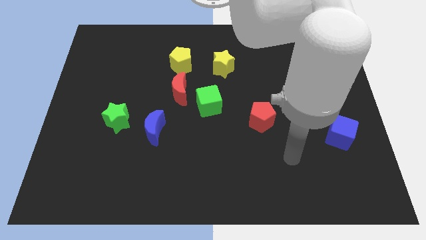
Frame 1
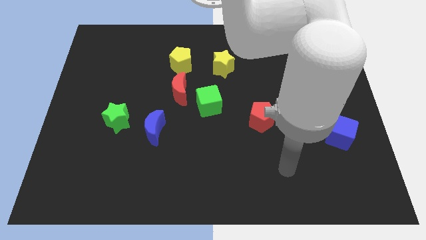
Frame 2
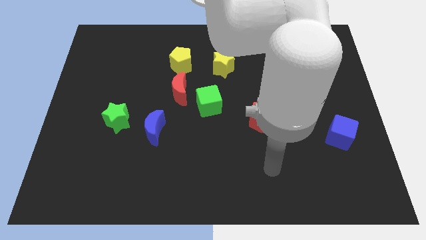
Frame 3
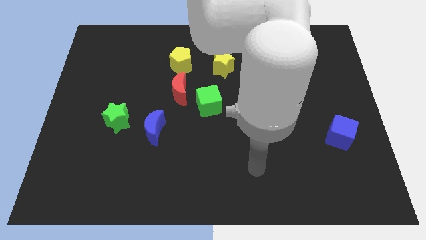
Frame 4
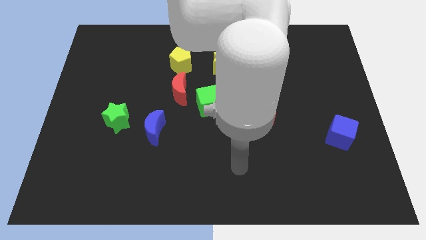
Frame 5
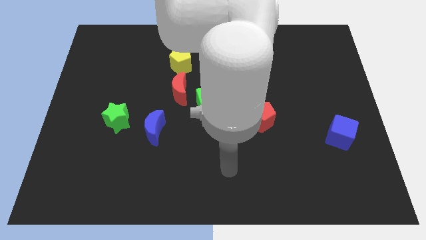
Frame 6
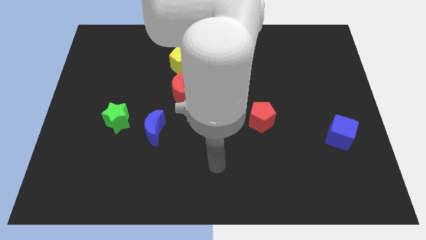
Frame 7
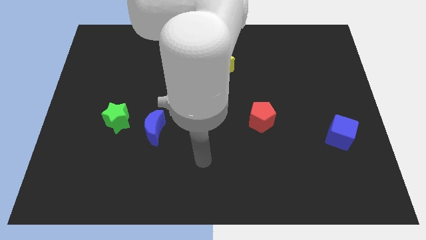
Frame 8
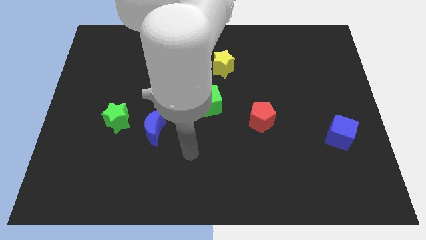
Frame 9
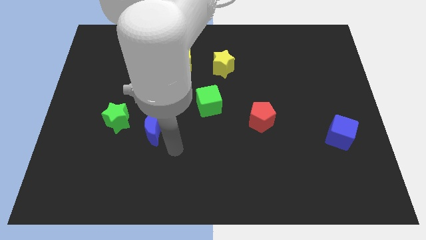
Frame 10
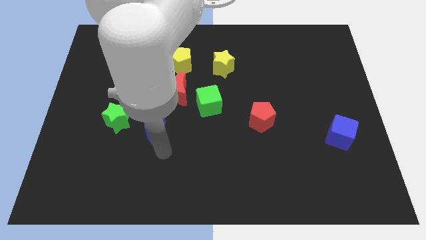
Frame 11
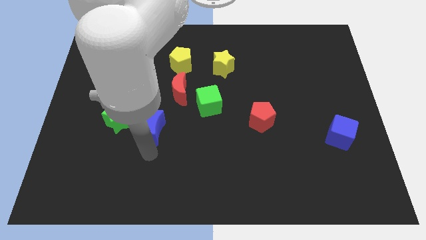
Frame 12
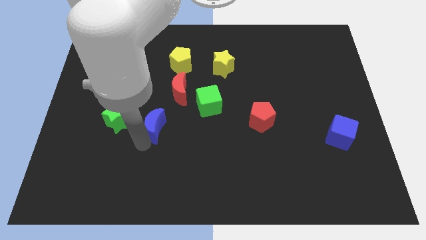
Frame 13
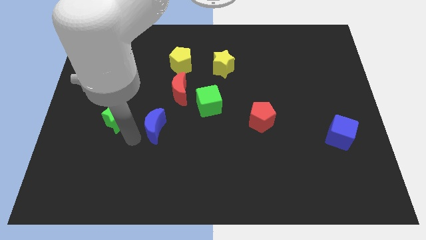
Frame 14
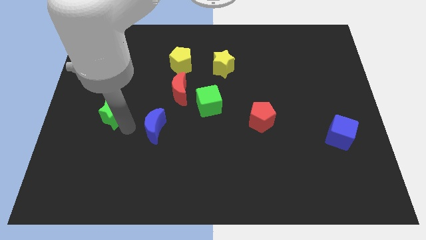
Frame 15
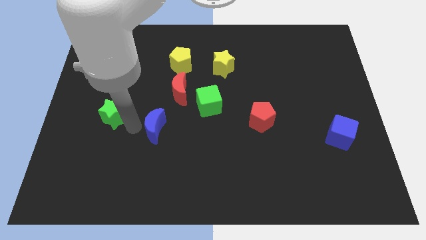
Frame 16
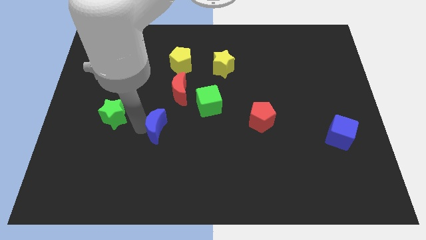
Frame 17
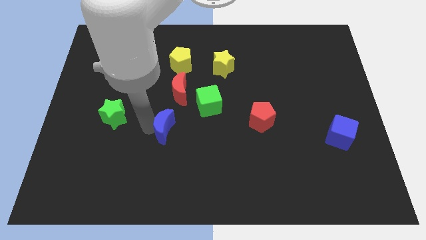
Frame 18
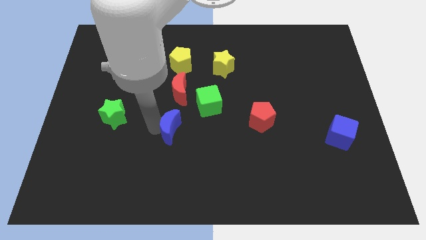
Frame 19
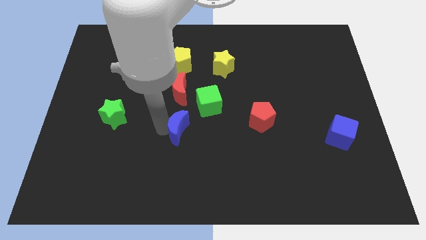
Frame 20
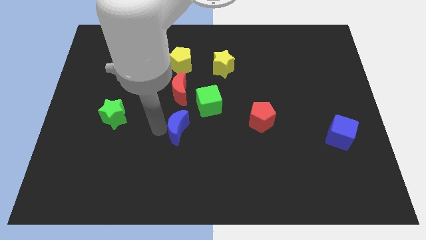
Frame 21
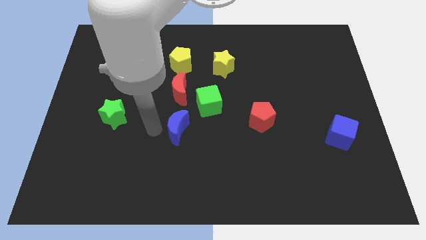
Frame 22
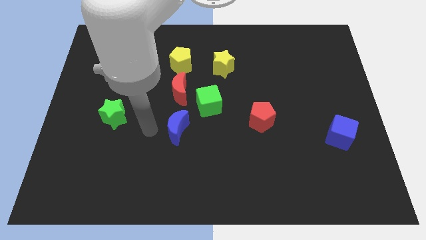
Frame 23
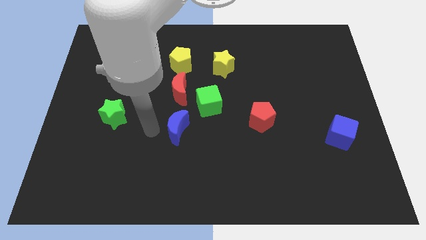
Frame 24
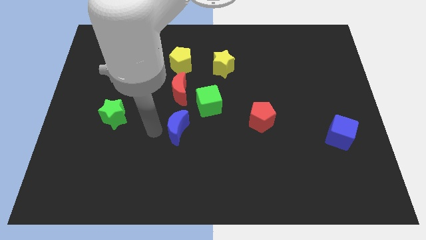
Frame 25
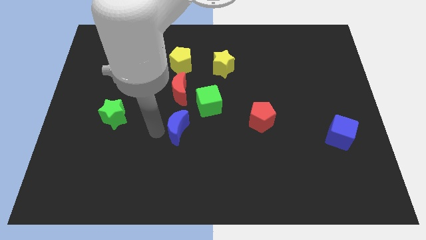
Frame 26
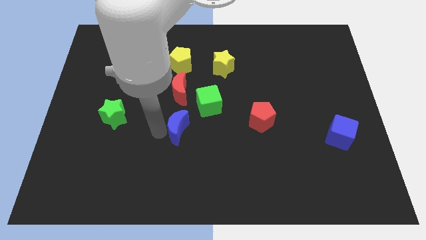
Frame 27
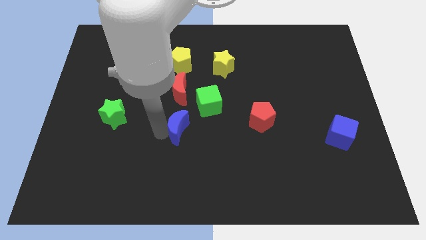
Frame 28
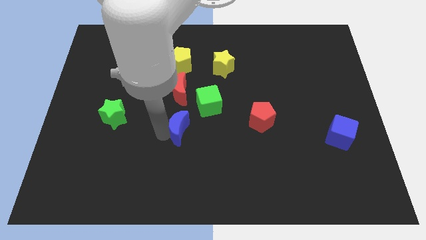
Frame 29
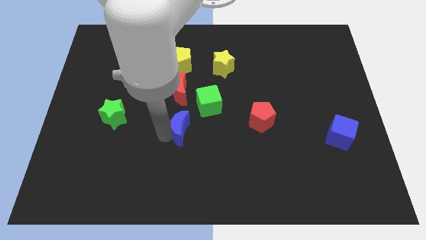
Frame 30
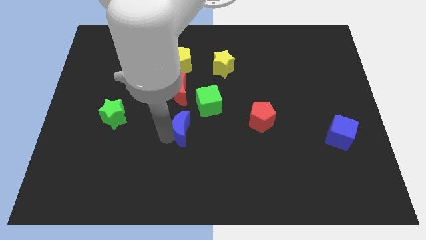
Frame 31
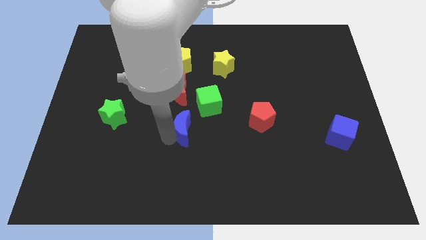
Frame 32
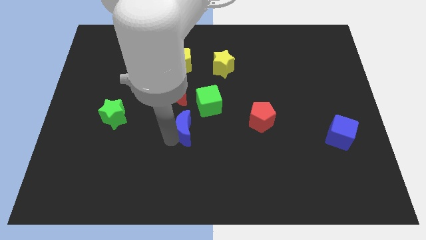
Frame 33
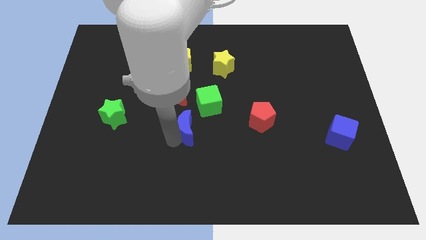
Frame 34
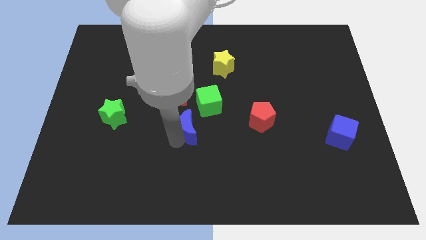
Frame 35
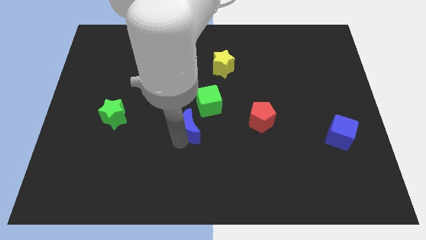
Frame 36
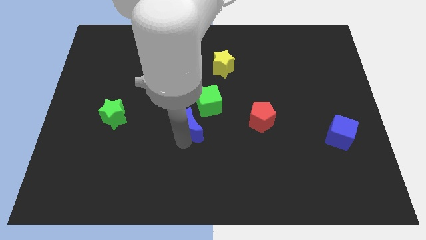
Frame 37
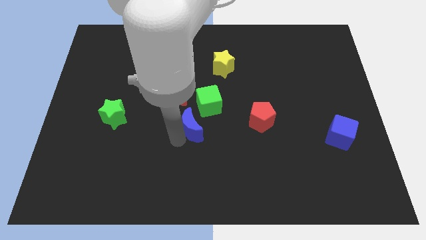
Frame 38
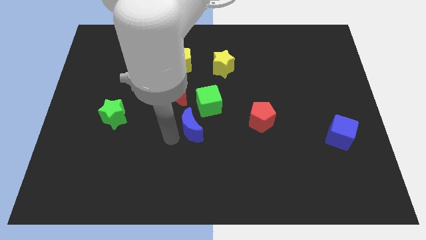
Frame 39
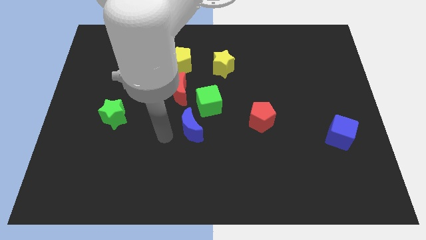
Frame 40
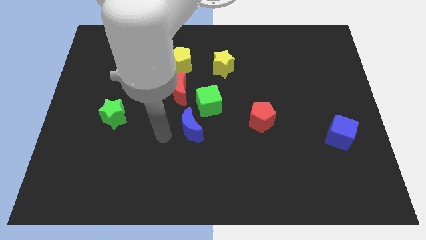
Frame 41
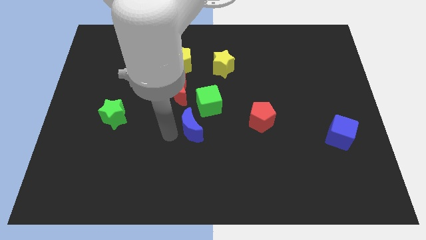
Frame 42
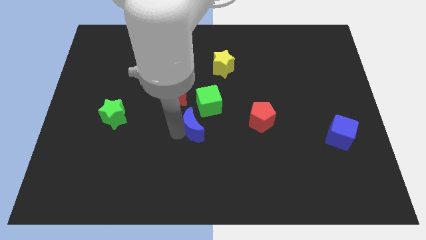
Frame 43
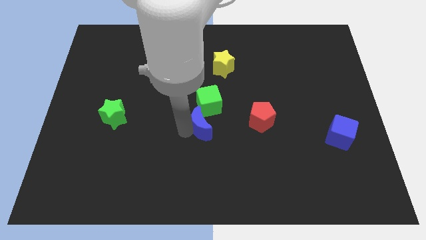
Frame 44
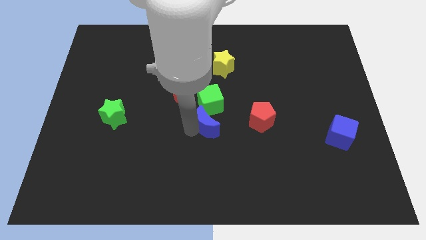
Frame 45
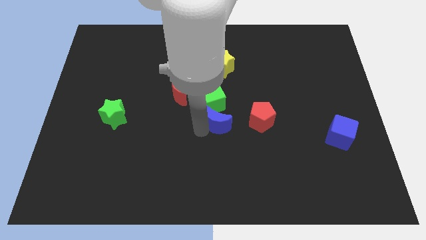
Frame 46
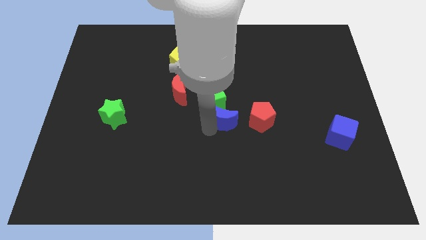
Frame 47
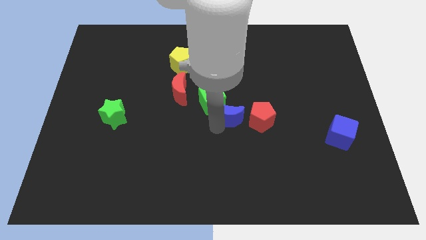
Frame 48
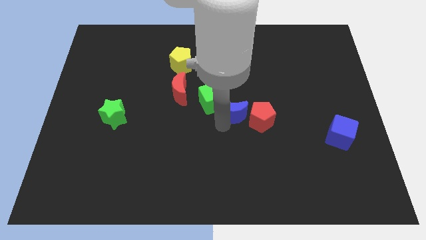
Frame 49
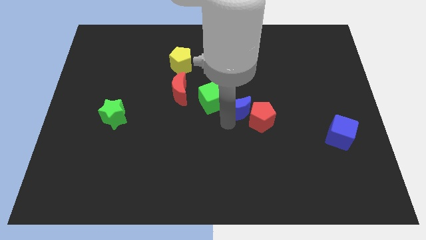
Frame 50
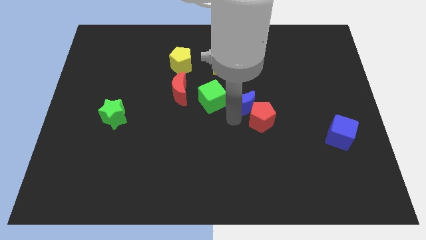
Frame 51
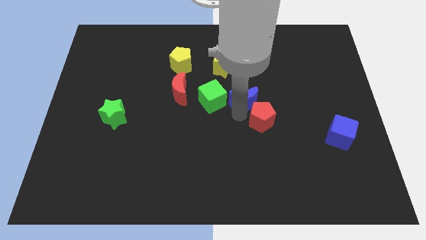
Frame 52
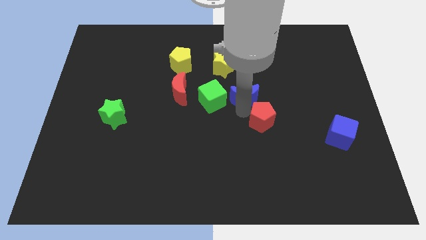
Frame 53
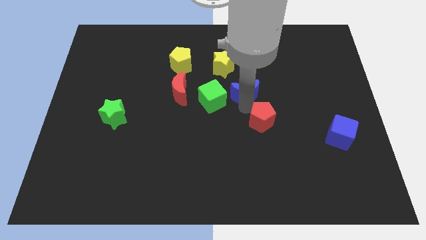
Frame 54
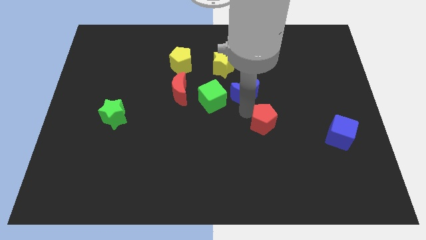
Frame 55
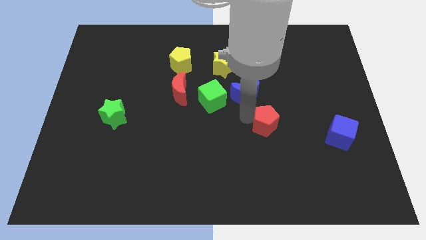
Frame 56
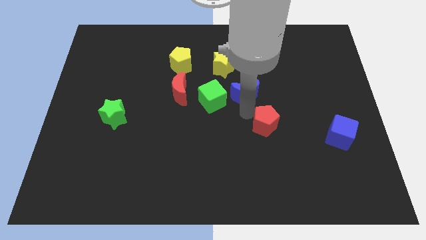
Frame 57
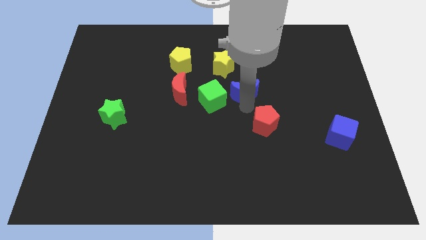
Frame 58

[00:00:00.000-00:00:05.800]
push the blue moon upwards and to the right

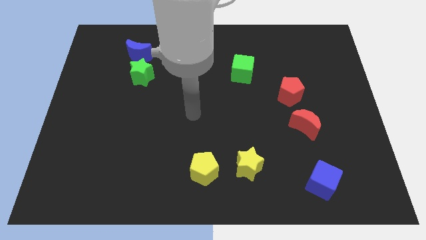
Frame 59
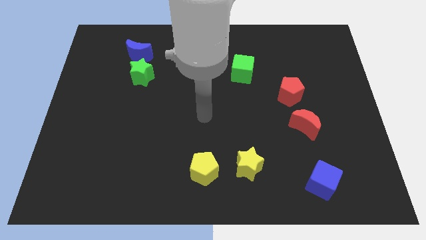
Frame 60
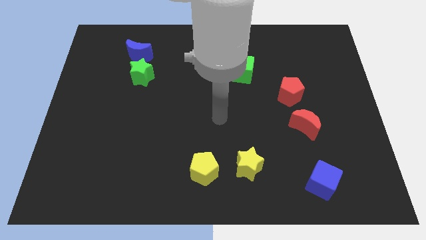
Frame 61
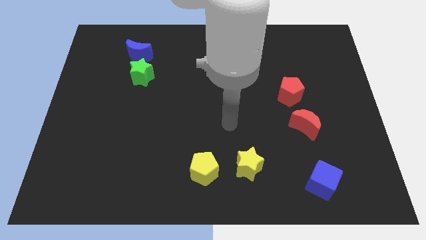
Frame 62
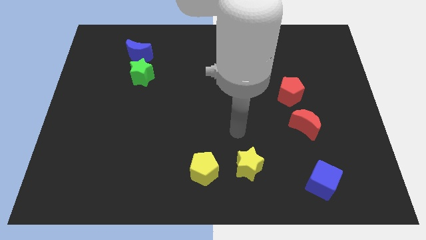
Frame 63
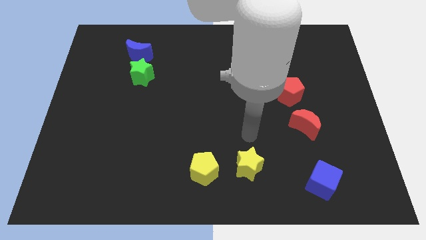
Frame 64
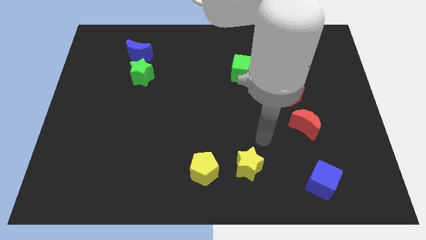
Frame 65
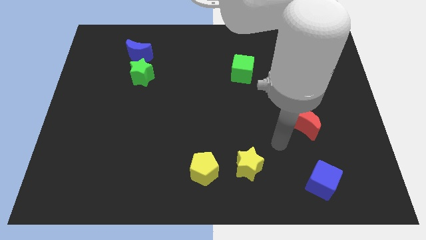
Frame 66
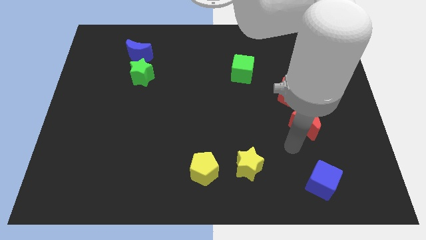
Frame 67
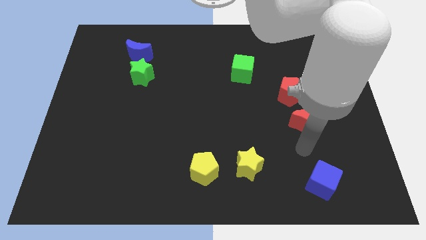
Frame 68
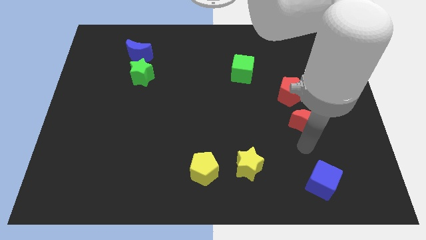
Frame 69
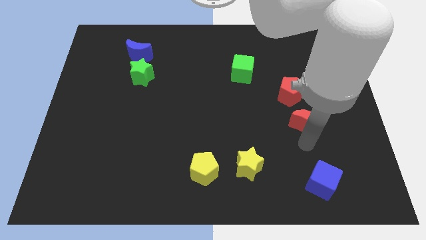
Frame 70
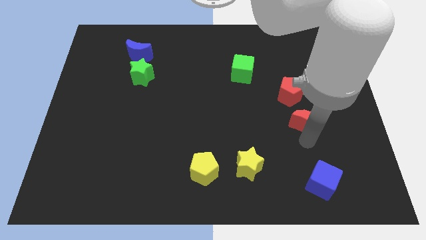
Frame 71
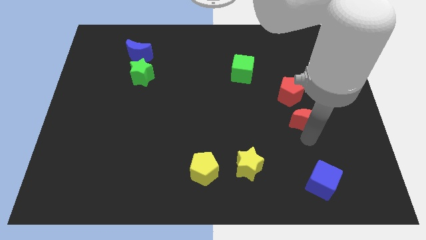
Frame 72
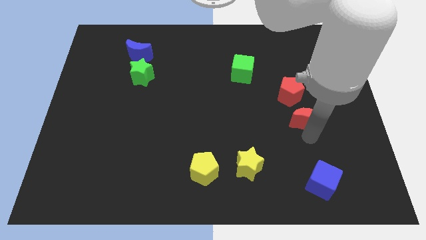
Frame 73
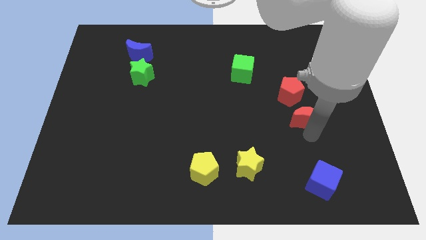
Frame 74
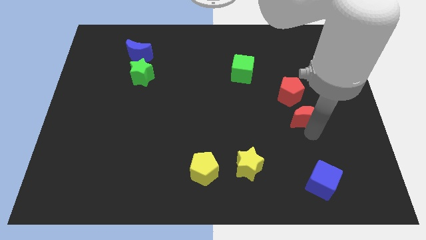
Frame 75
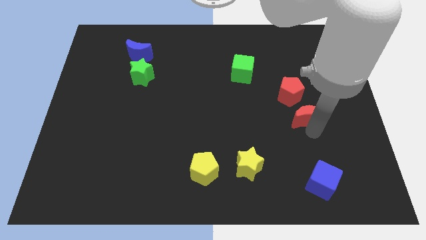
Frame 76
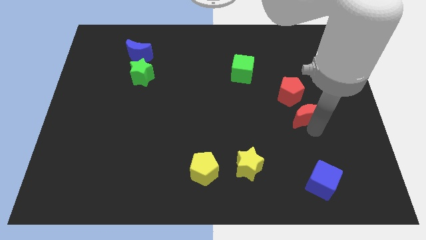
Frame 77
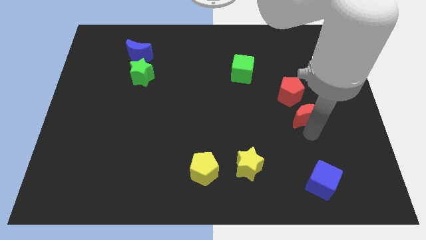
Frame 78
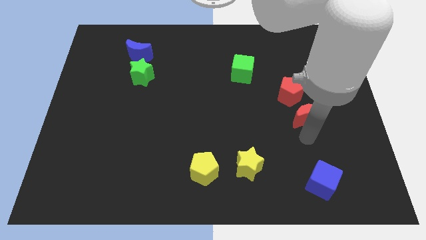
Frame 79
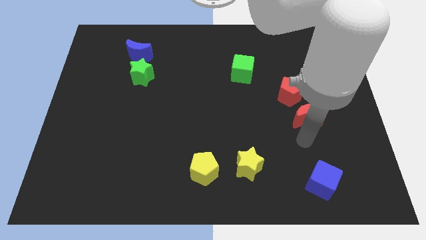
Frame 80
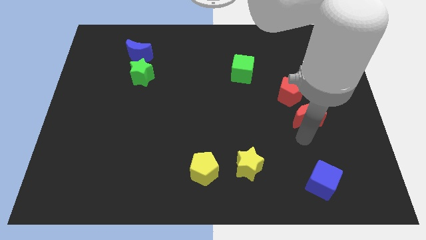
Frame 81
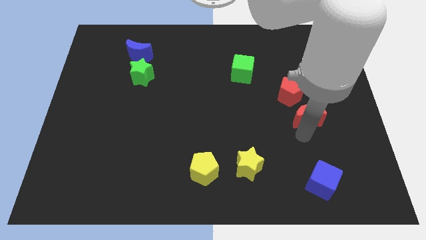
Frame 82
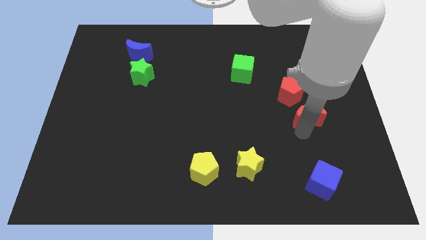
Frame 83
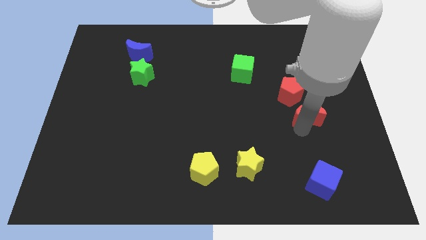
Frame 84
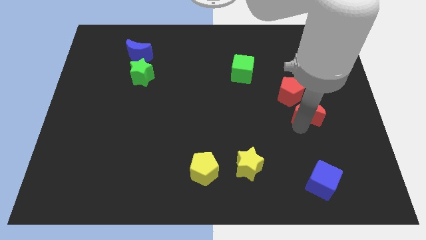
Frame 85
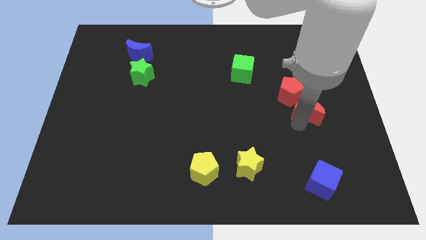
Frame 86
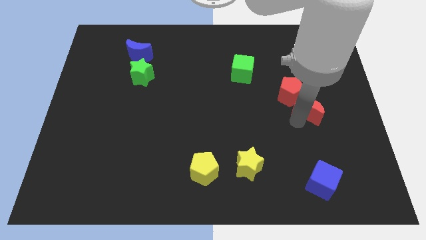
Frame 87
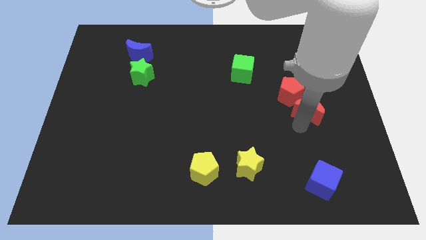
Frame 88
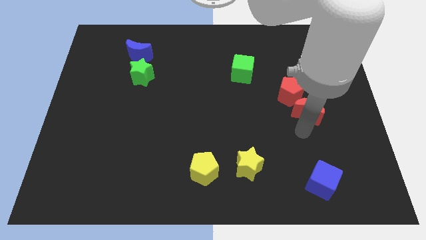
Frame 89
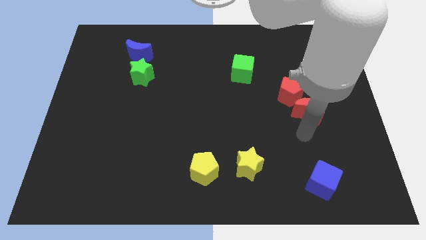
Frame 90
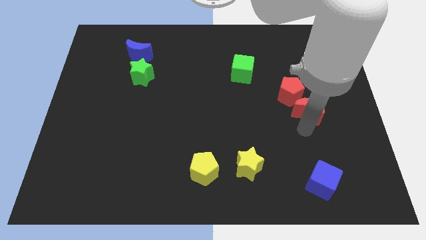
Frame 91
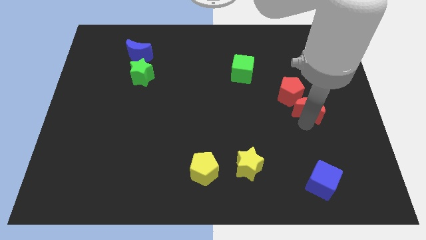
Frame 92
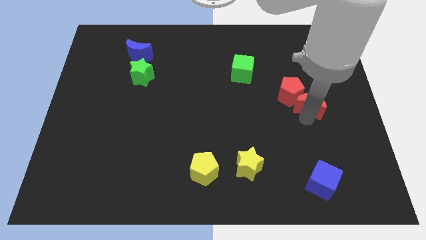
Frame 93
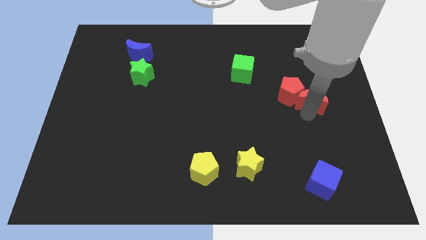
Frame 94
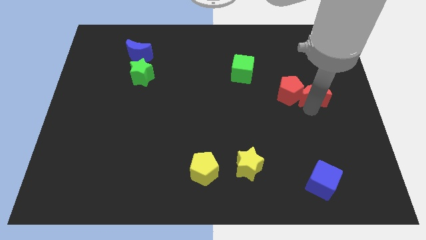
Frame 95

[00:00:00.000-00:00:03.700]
push the red moon upwards a bit
